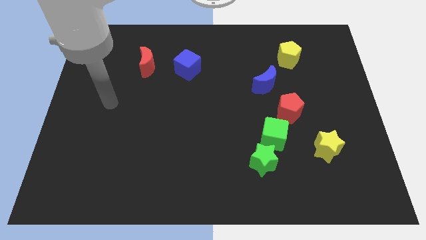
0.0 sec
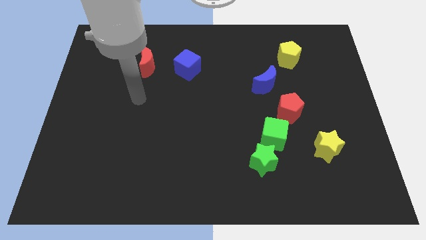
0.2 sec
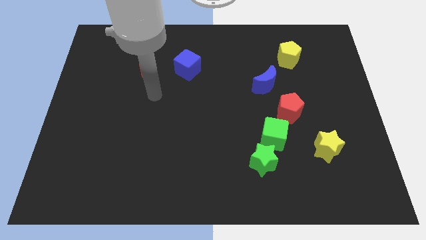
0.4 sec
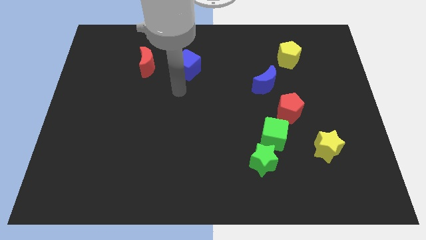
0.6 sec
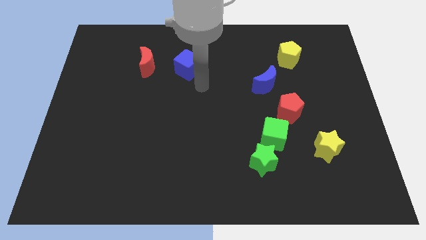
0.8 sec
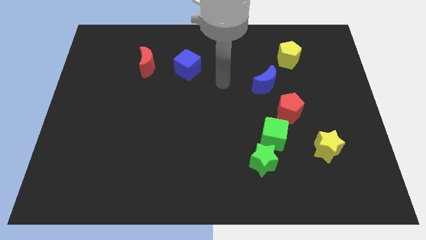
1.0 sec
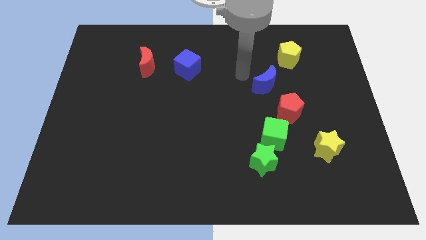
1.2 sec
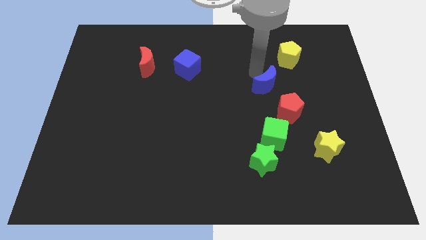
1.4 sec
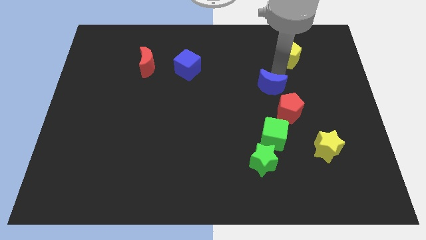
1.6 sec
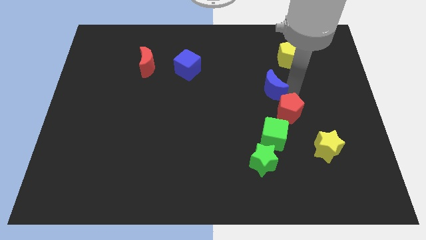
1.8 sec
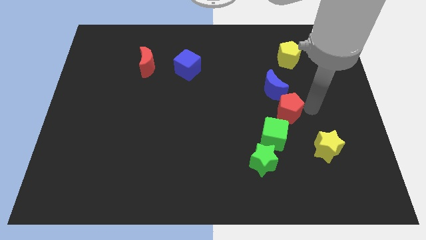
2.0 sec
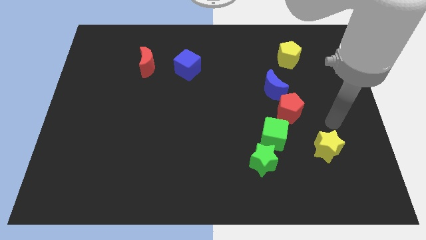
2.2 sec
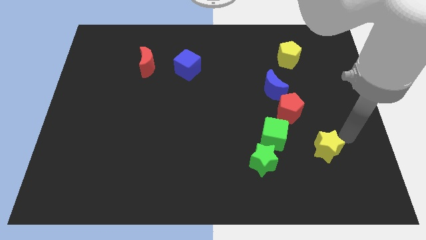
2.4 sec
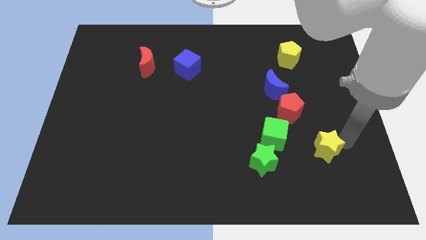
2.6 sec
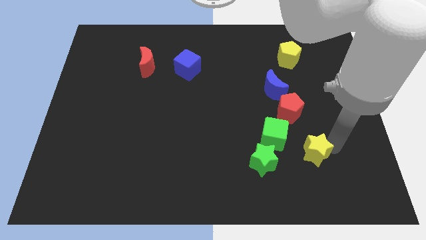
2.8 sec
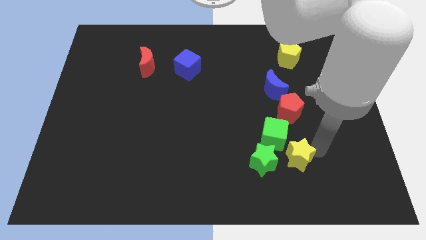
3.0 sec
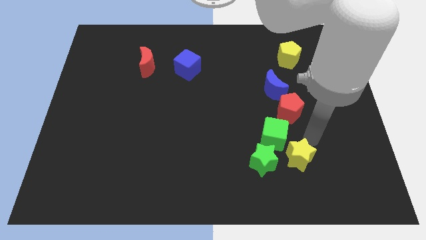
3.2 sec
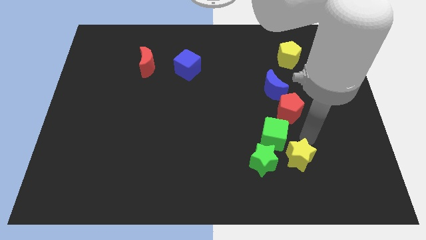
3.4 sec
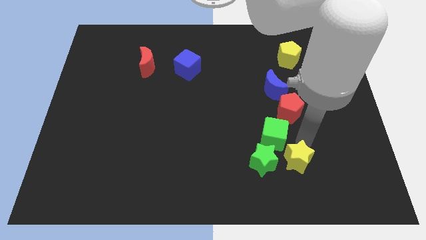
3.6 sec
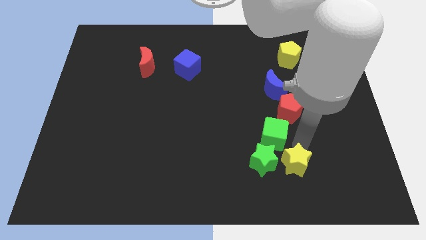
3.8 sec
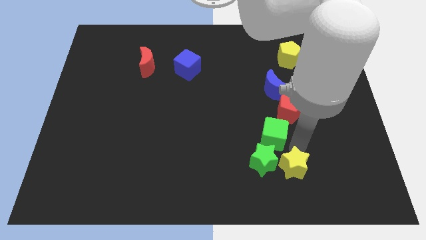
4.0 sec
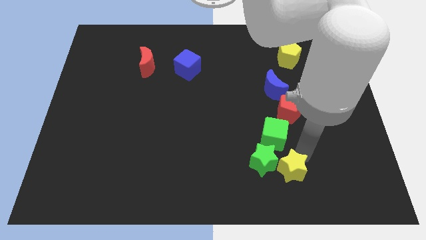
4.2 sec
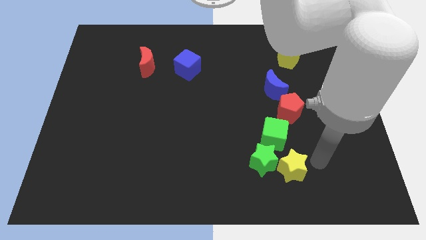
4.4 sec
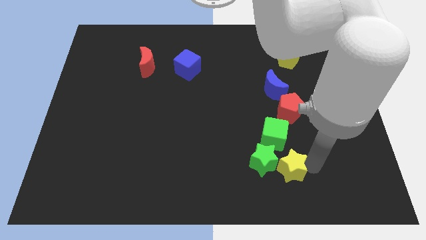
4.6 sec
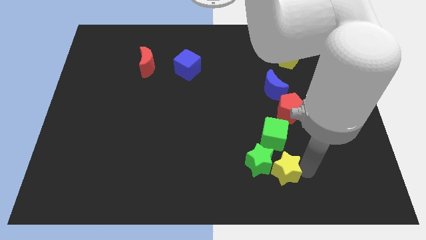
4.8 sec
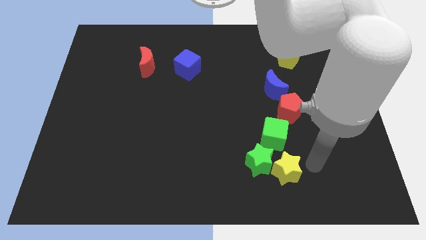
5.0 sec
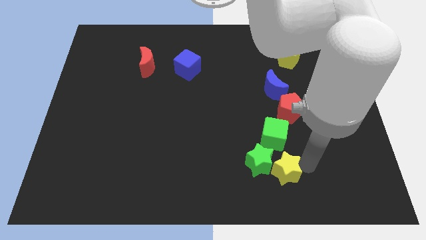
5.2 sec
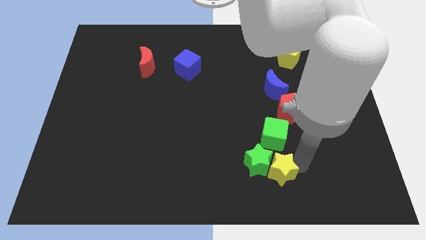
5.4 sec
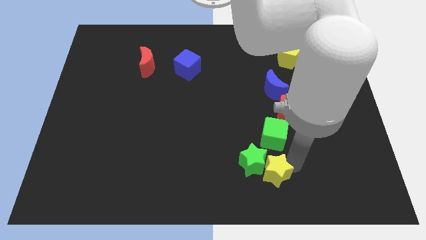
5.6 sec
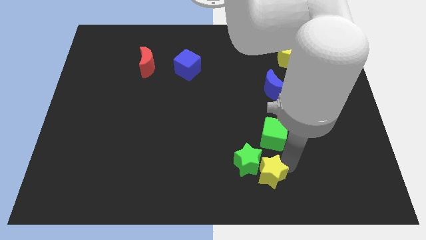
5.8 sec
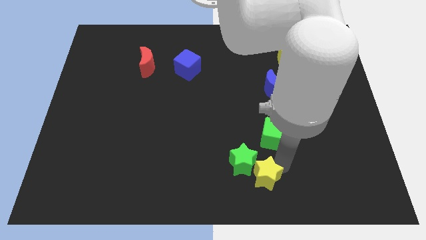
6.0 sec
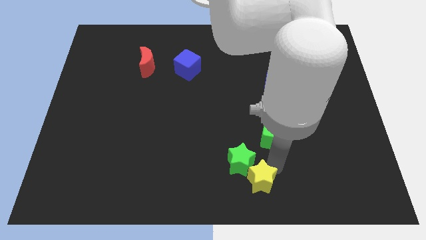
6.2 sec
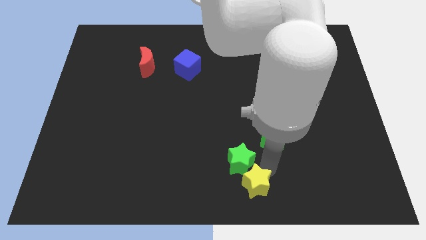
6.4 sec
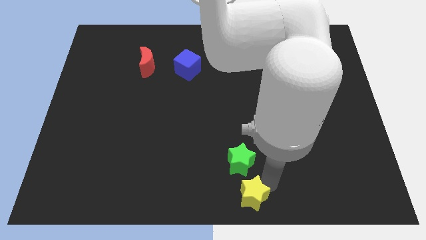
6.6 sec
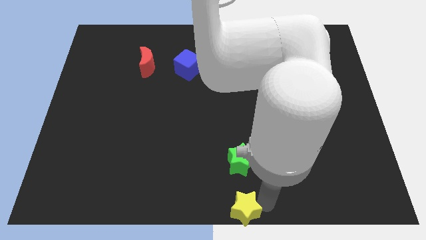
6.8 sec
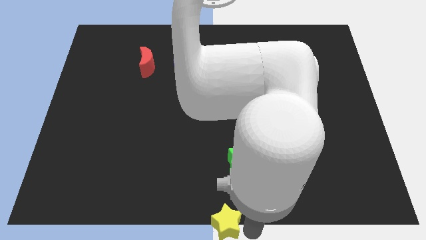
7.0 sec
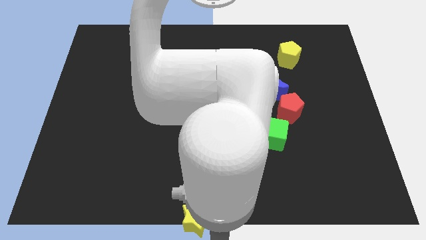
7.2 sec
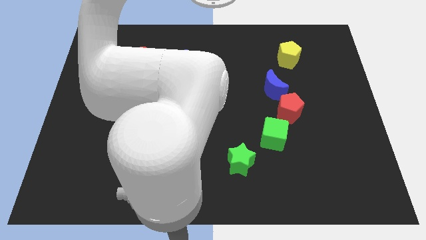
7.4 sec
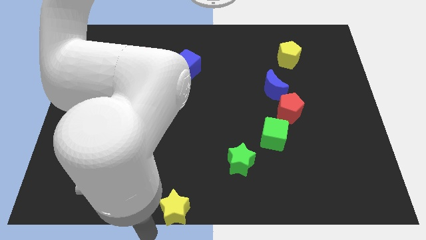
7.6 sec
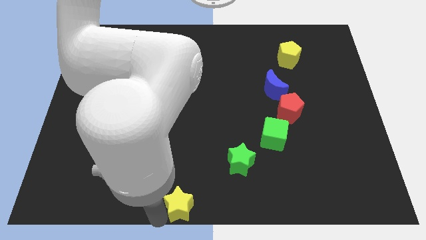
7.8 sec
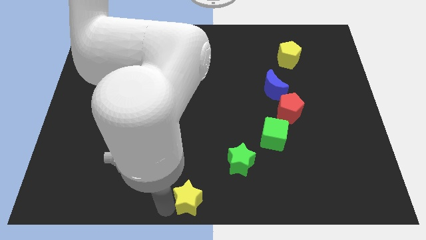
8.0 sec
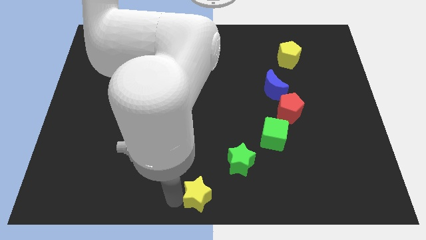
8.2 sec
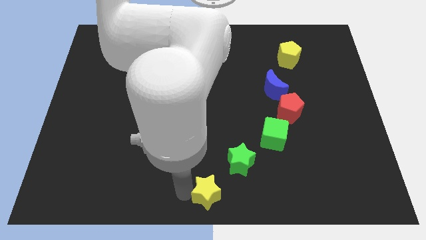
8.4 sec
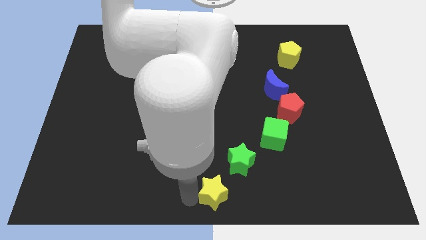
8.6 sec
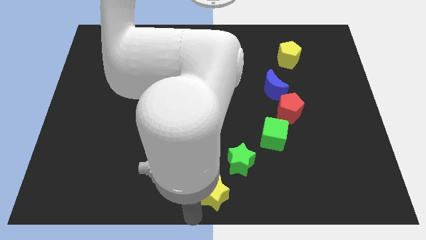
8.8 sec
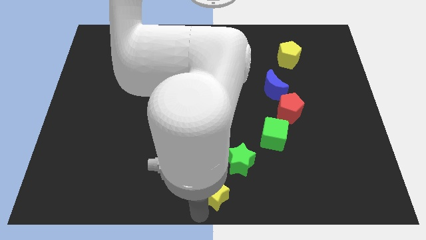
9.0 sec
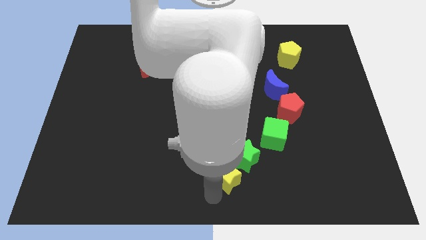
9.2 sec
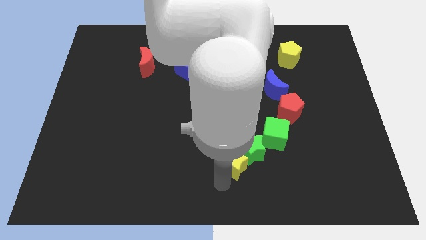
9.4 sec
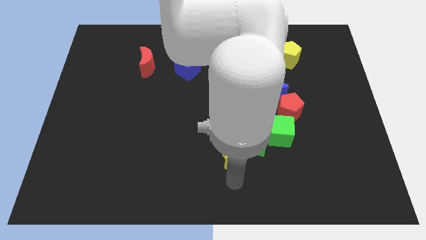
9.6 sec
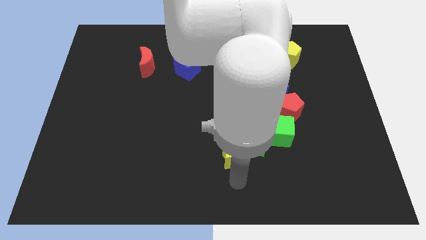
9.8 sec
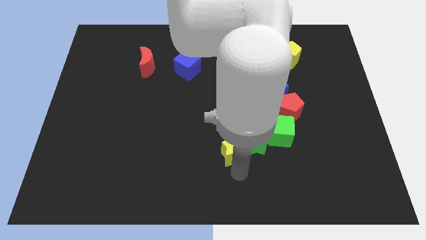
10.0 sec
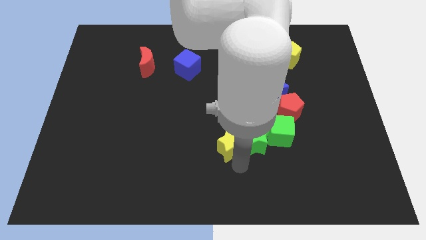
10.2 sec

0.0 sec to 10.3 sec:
put the yellow star to the top left side of the green star

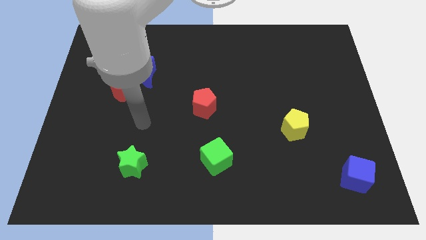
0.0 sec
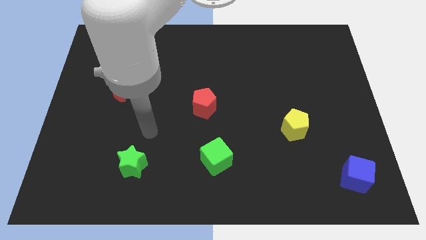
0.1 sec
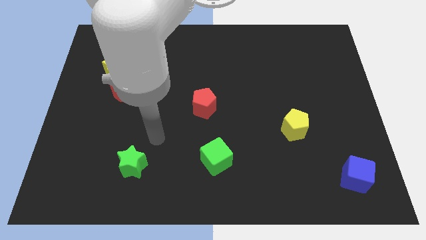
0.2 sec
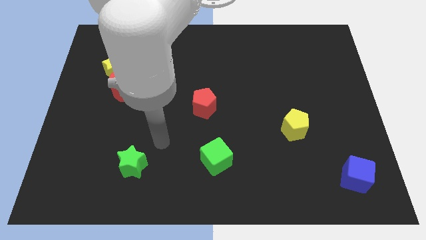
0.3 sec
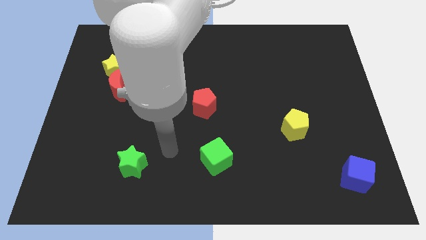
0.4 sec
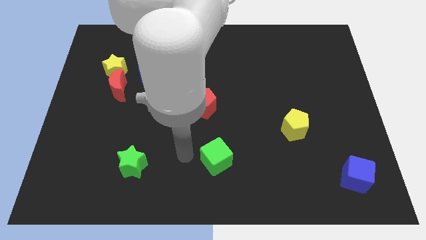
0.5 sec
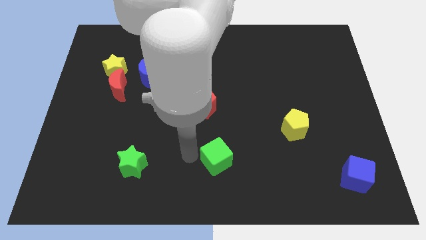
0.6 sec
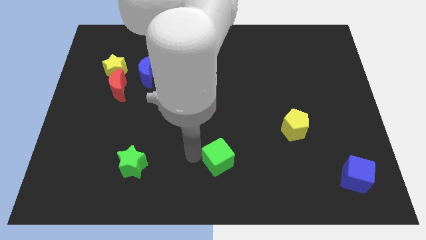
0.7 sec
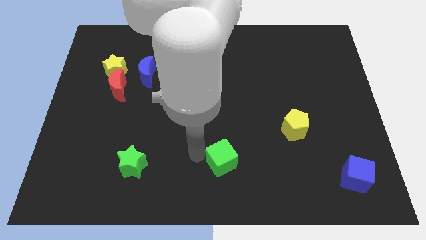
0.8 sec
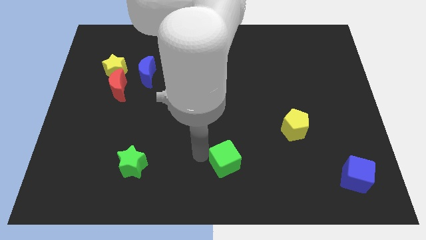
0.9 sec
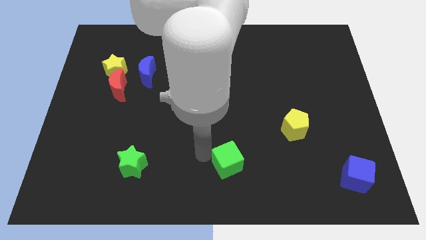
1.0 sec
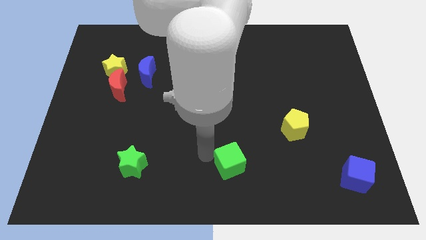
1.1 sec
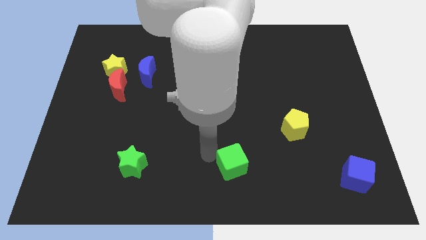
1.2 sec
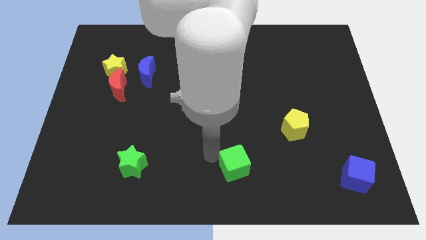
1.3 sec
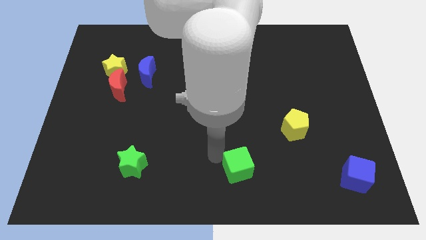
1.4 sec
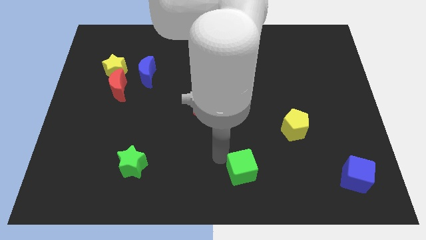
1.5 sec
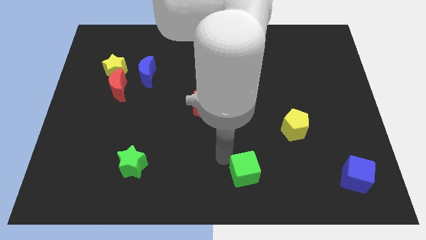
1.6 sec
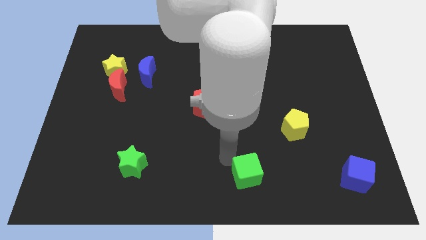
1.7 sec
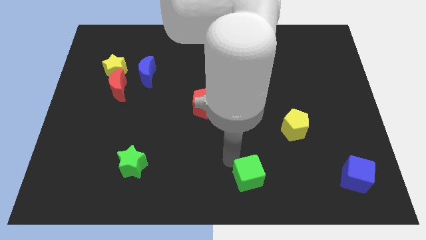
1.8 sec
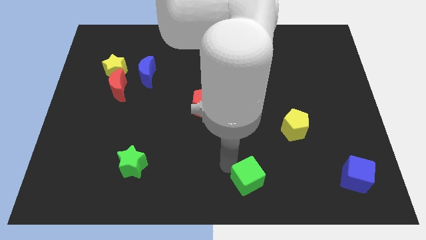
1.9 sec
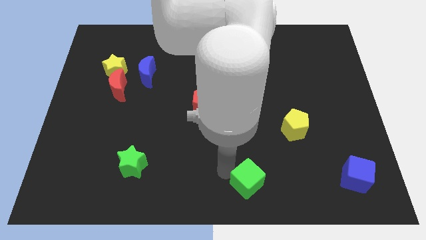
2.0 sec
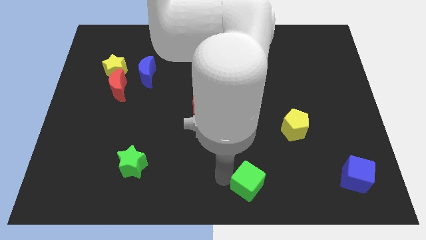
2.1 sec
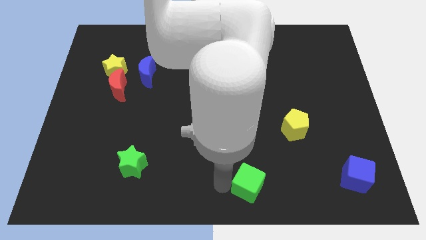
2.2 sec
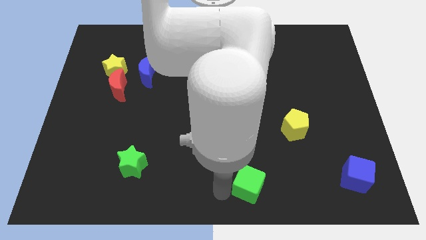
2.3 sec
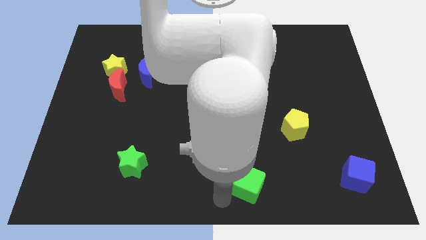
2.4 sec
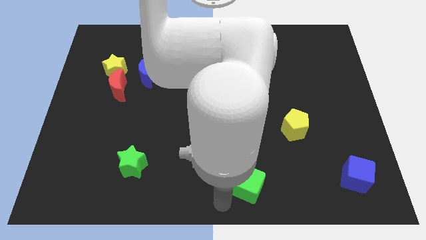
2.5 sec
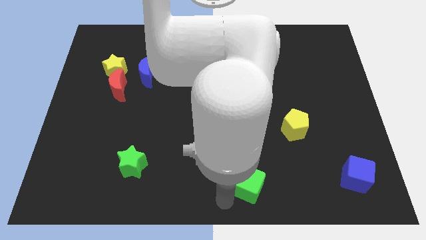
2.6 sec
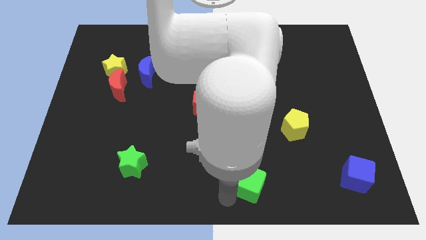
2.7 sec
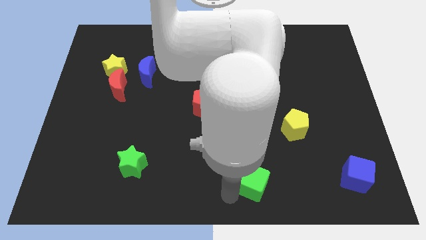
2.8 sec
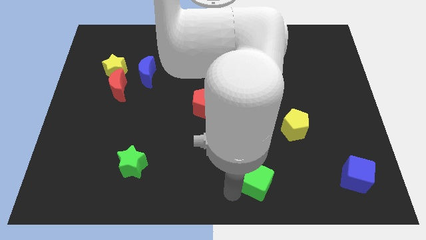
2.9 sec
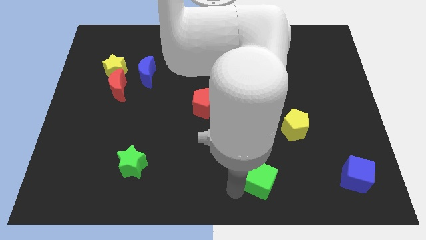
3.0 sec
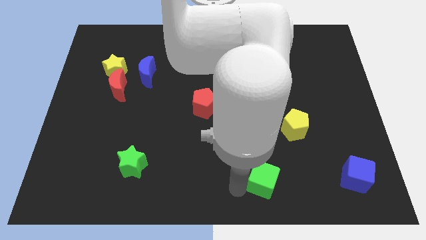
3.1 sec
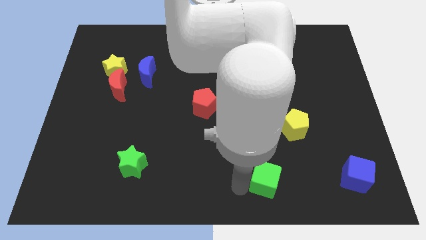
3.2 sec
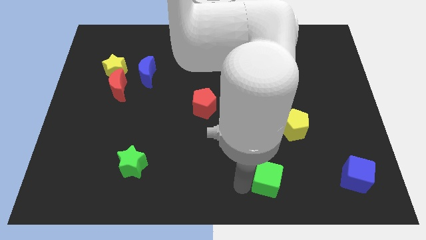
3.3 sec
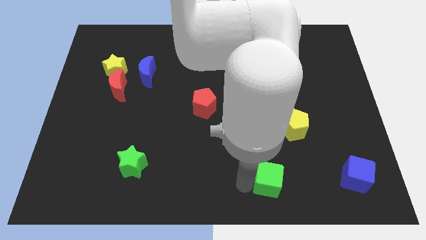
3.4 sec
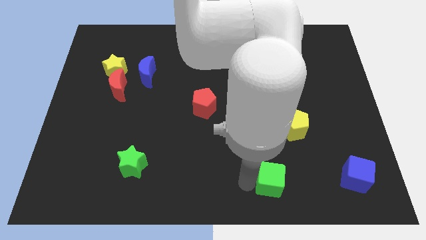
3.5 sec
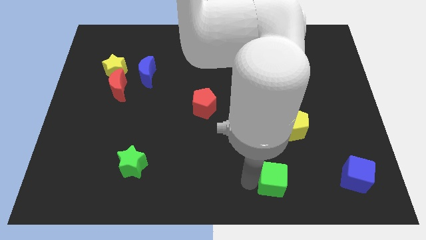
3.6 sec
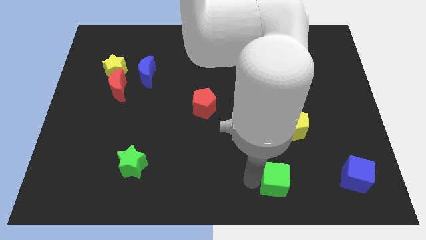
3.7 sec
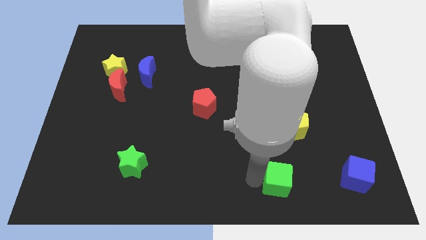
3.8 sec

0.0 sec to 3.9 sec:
slide the green cube just left of the blue cube
